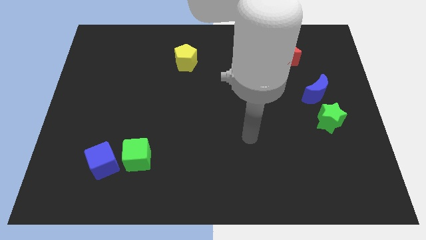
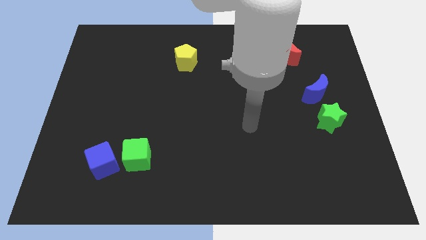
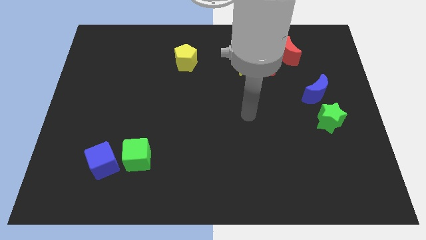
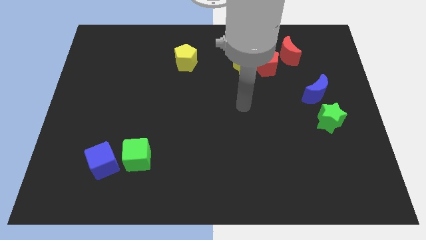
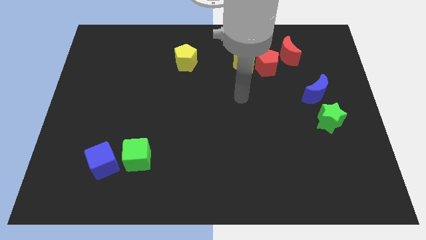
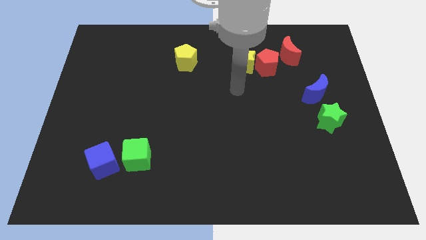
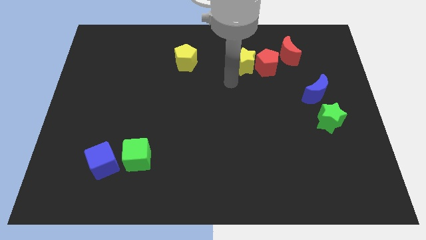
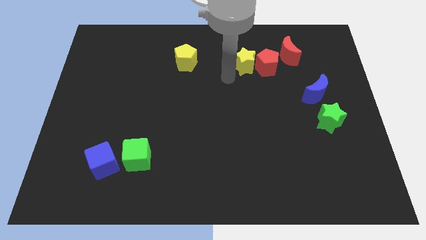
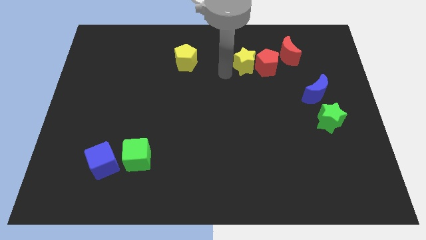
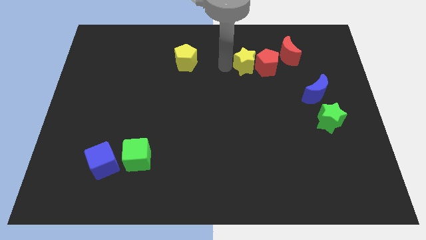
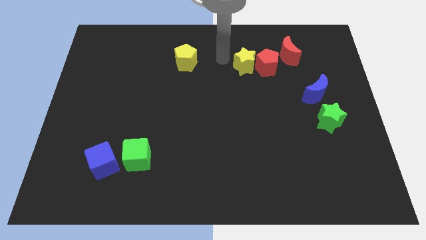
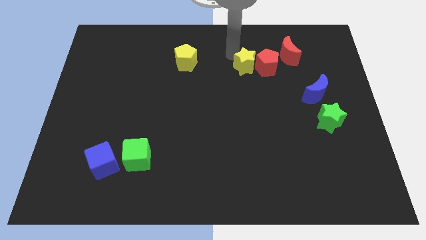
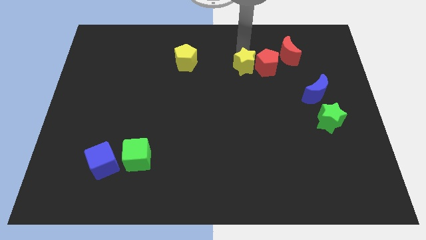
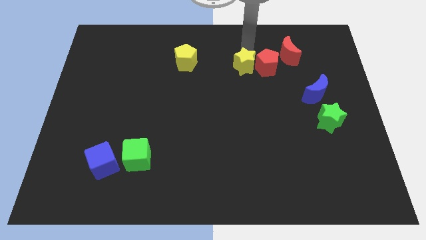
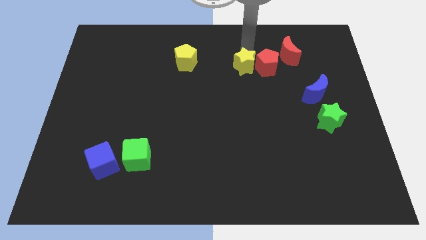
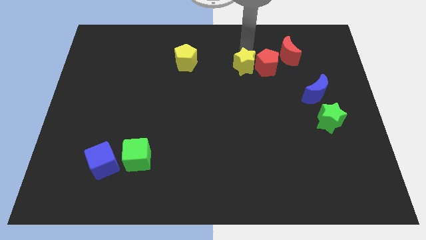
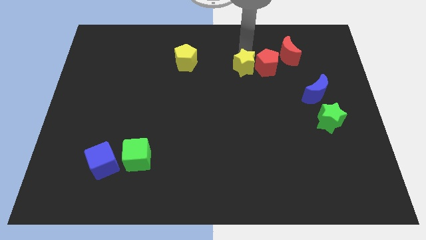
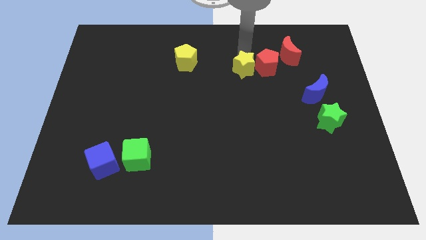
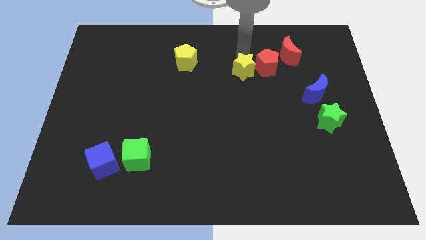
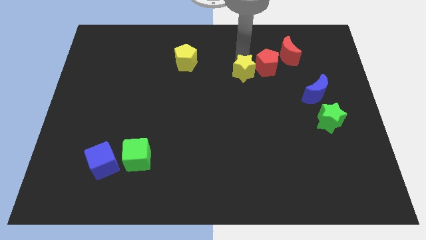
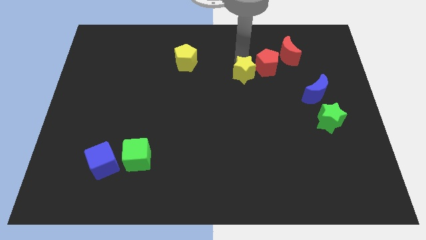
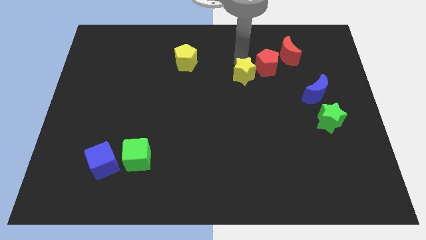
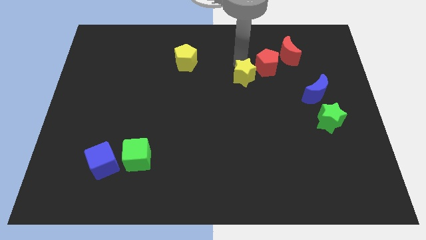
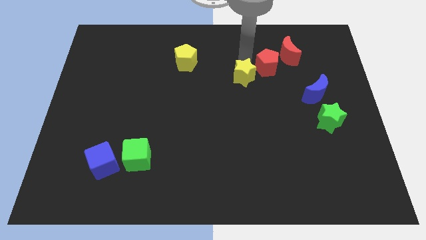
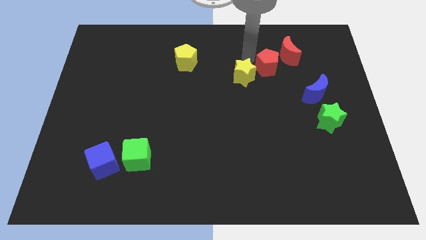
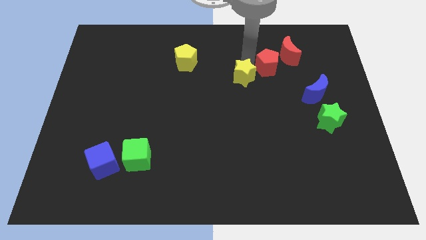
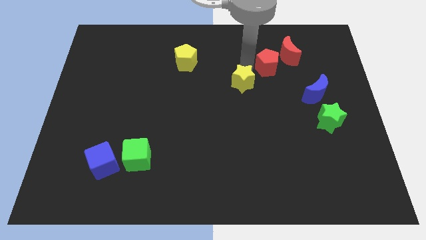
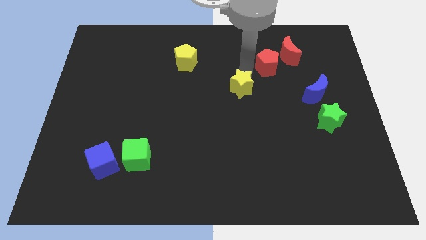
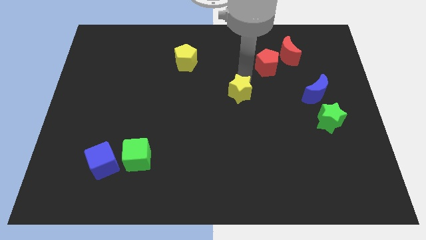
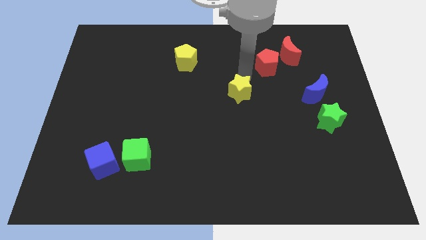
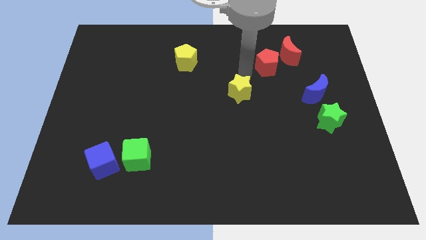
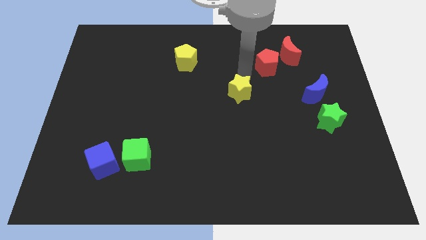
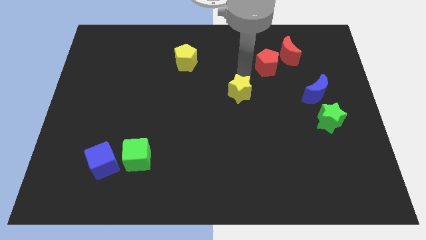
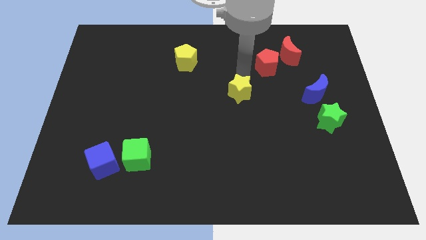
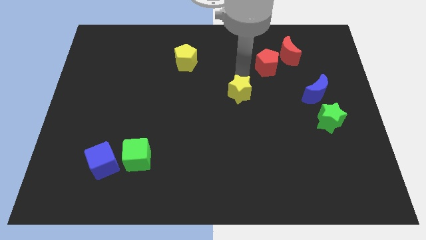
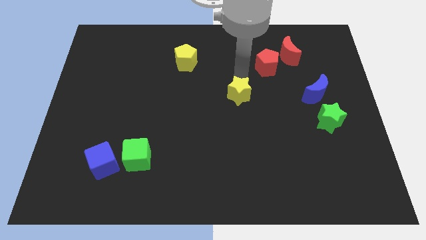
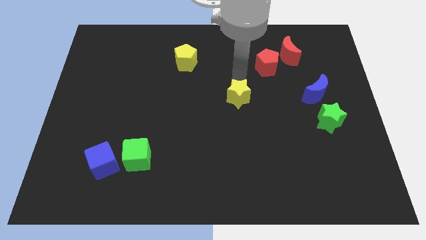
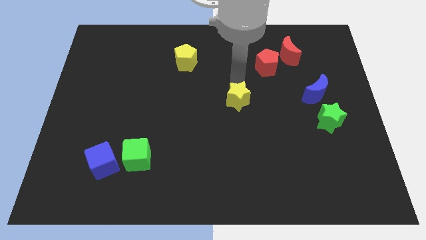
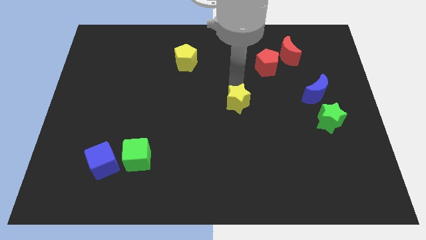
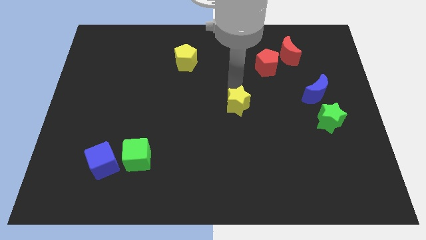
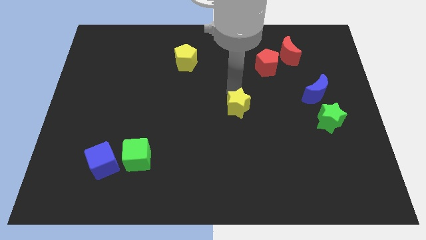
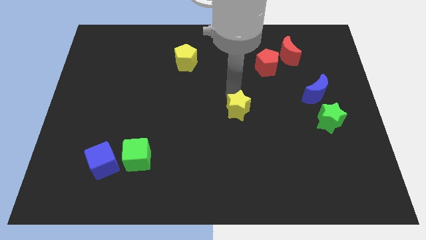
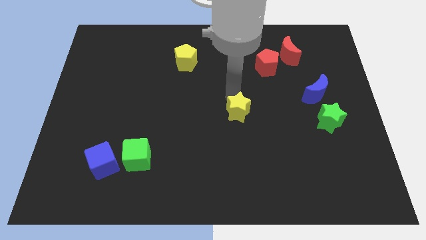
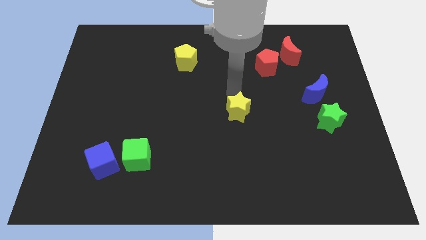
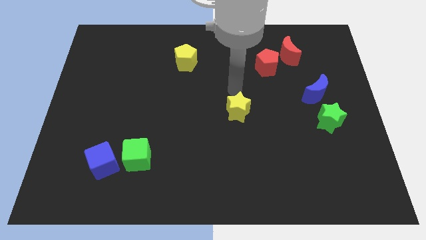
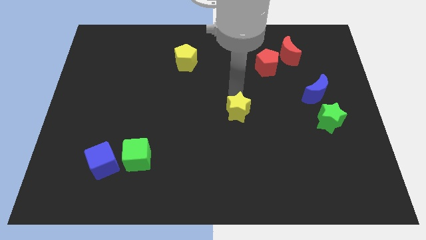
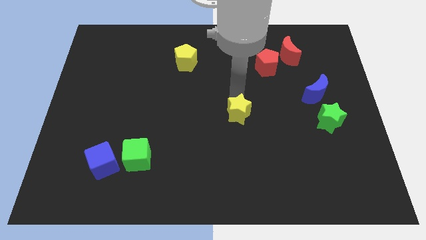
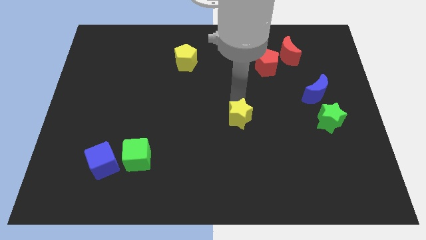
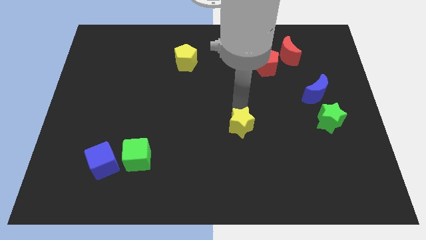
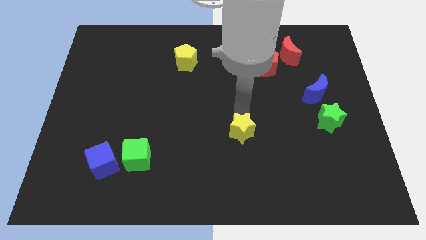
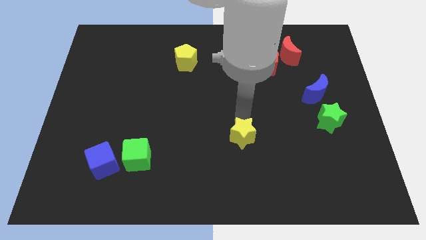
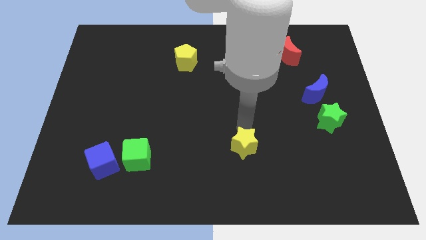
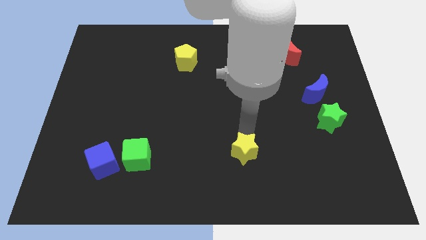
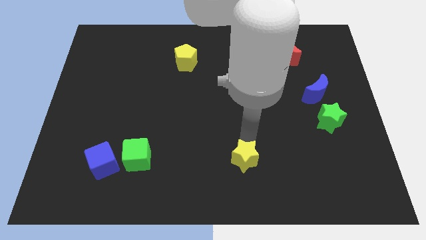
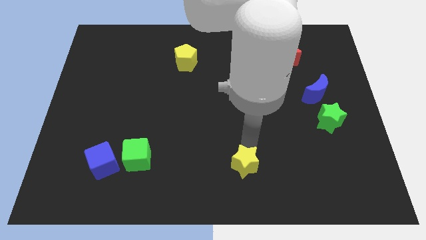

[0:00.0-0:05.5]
push the yellow star to the bottom side
